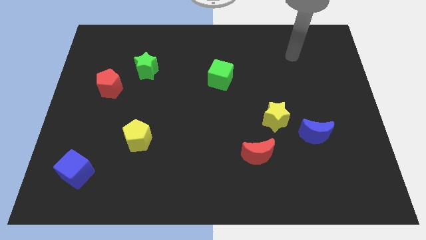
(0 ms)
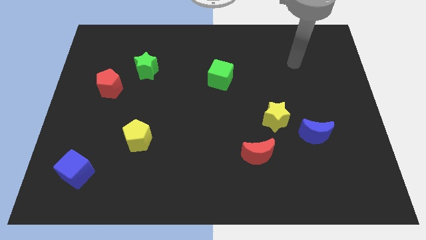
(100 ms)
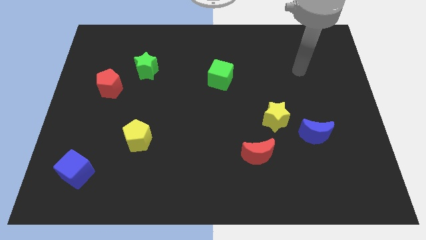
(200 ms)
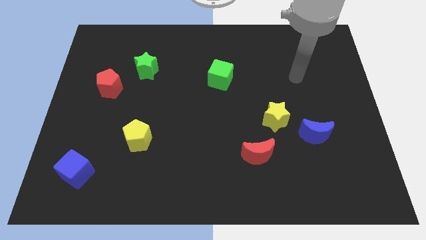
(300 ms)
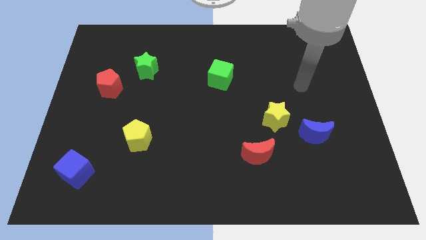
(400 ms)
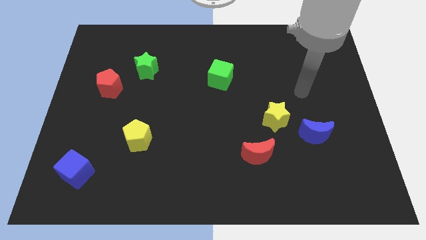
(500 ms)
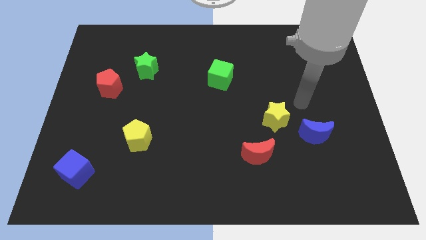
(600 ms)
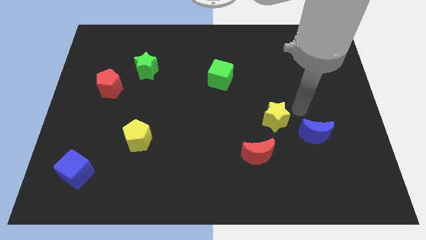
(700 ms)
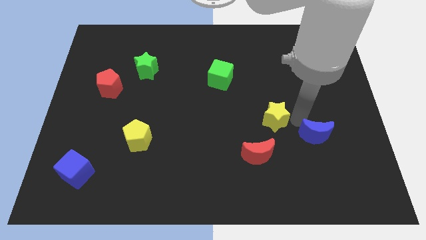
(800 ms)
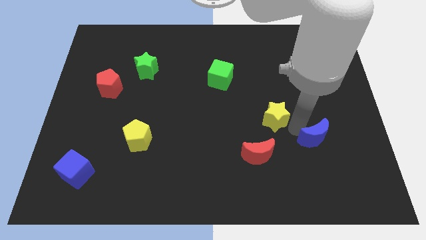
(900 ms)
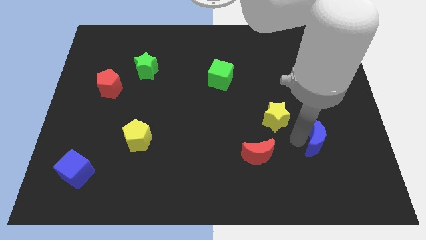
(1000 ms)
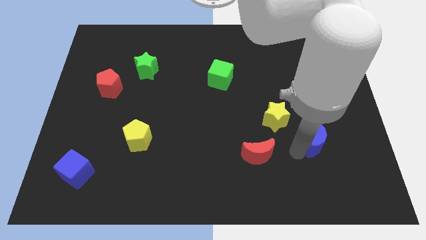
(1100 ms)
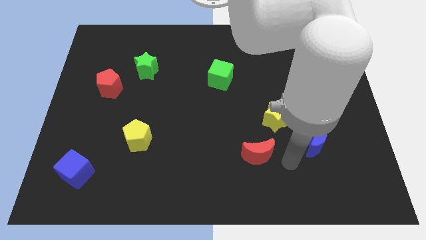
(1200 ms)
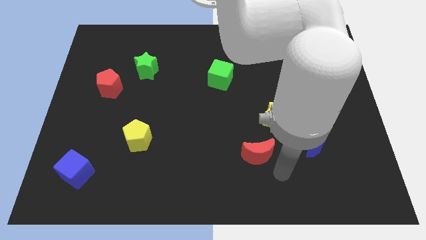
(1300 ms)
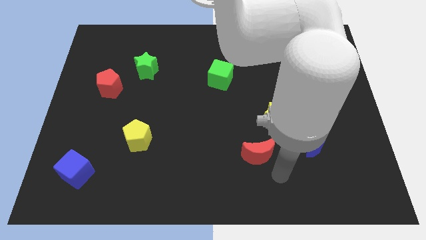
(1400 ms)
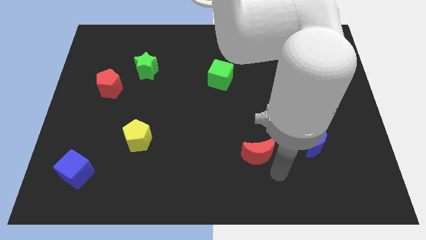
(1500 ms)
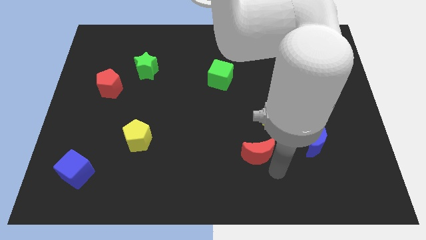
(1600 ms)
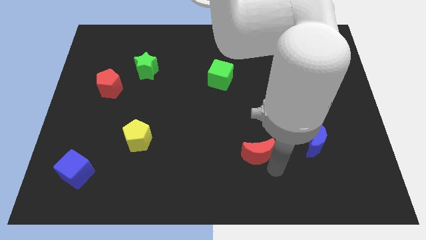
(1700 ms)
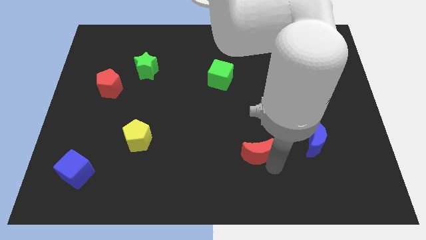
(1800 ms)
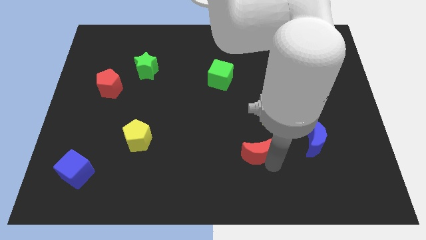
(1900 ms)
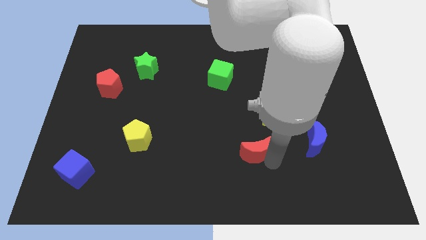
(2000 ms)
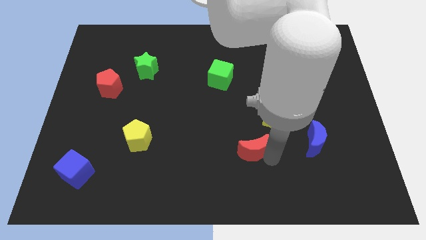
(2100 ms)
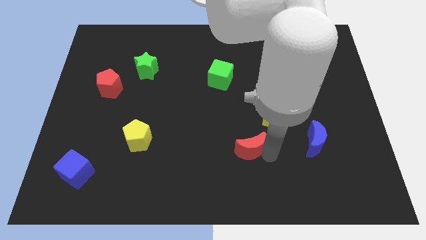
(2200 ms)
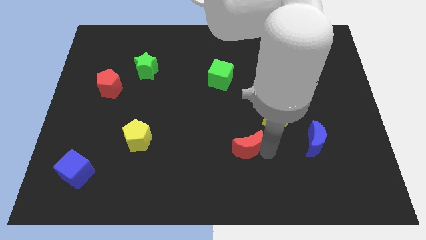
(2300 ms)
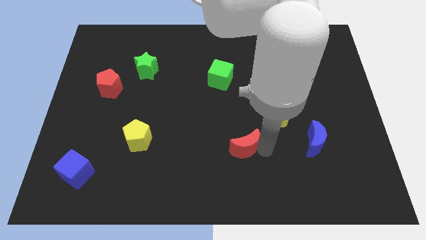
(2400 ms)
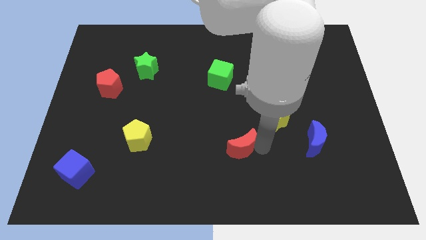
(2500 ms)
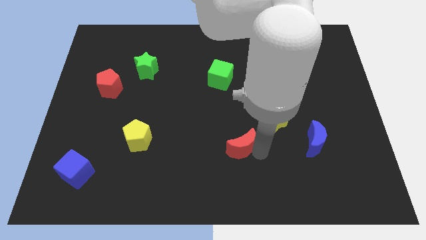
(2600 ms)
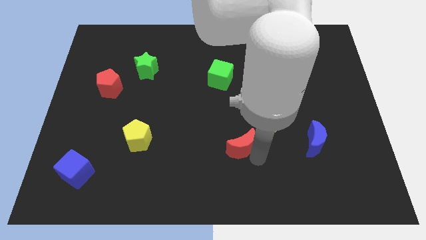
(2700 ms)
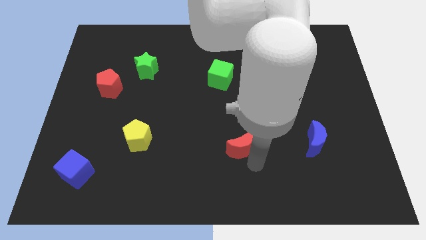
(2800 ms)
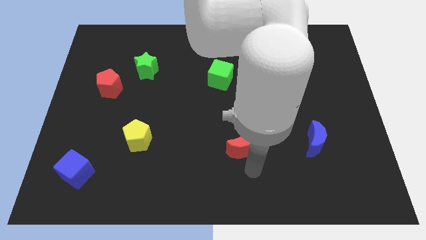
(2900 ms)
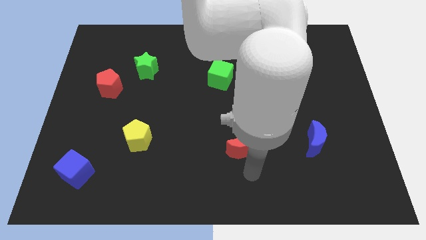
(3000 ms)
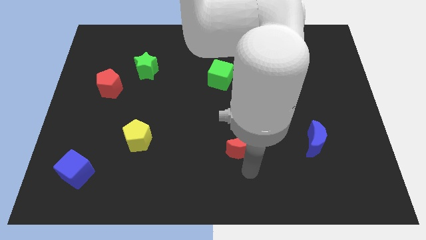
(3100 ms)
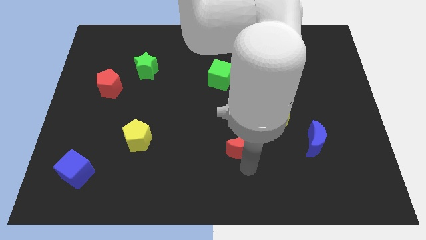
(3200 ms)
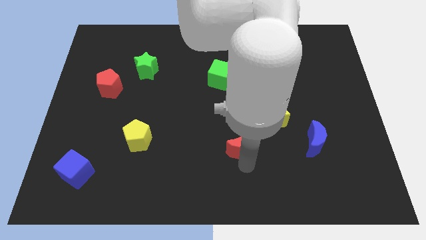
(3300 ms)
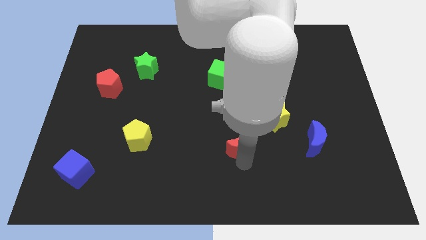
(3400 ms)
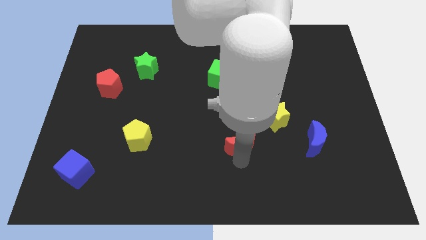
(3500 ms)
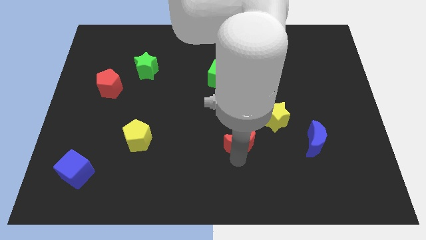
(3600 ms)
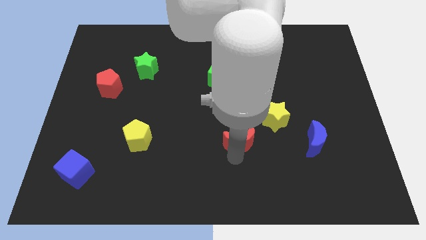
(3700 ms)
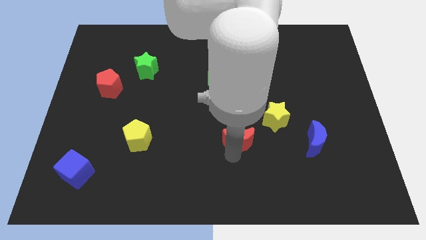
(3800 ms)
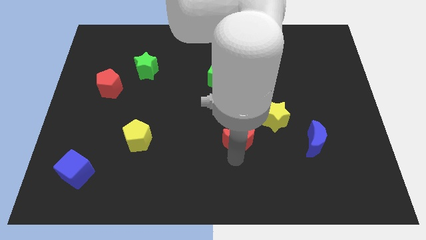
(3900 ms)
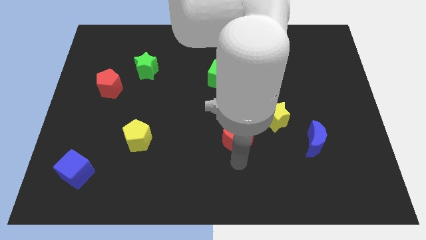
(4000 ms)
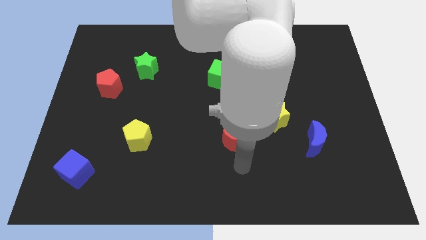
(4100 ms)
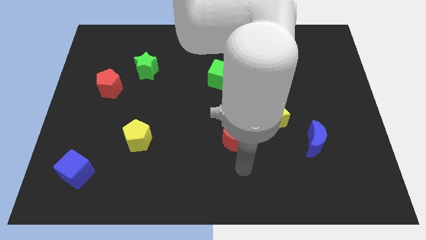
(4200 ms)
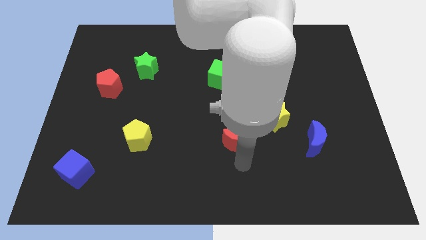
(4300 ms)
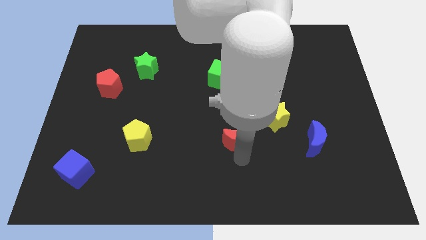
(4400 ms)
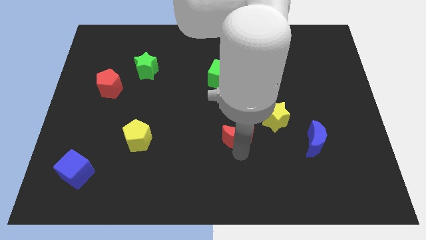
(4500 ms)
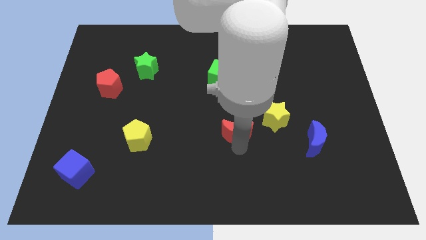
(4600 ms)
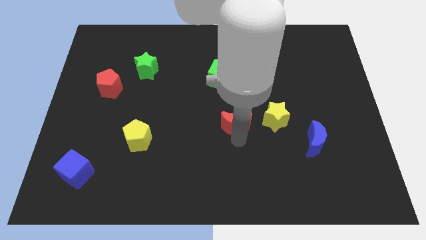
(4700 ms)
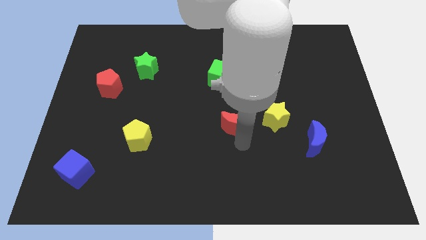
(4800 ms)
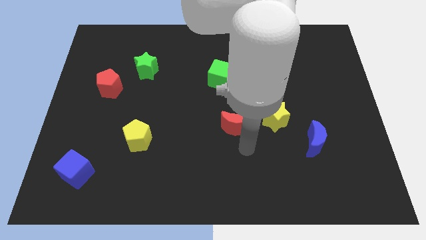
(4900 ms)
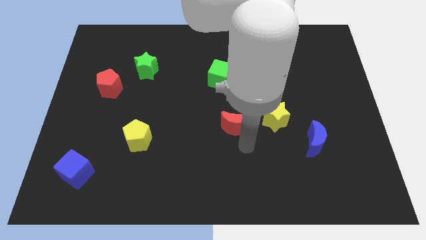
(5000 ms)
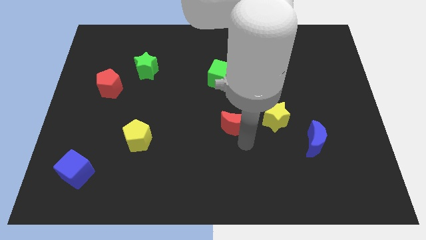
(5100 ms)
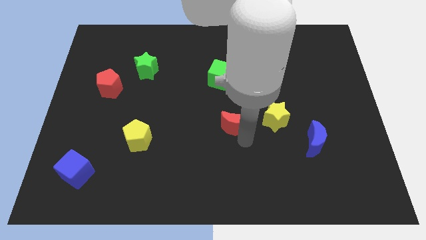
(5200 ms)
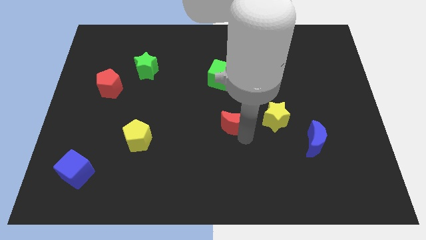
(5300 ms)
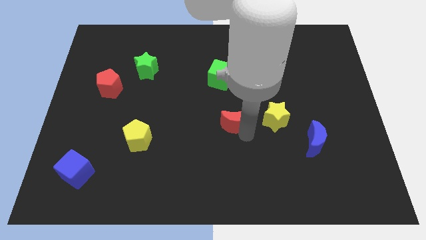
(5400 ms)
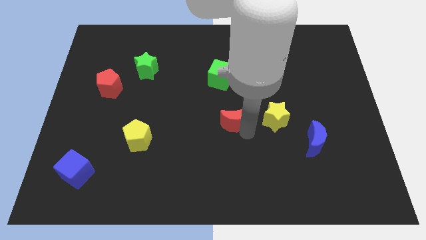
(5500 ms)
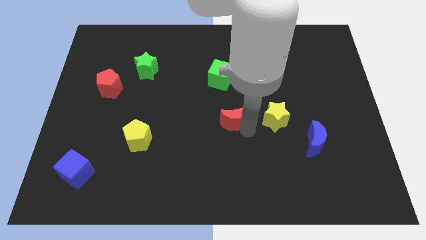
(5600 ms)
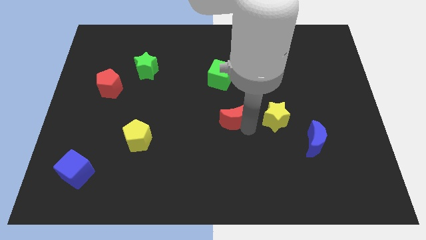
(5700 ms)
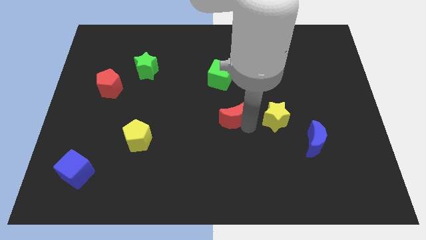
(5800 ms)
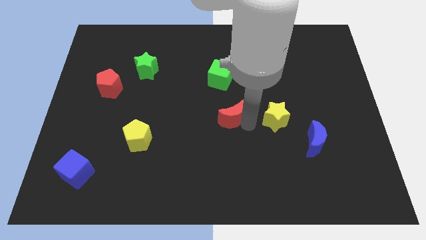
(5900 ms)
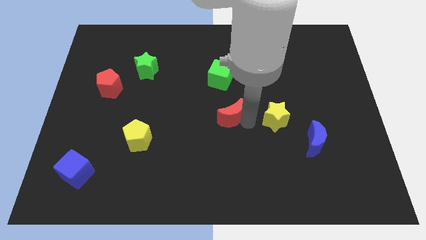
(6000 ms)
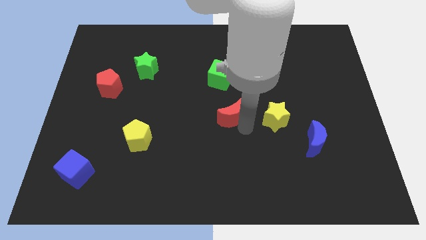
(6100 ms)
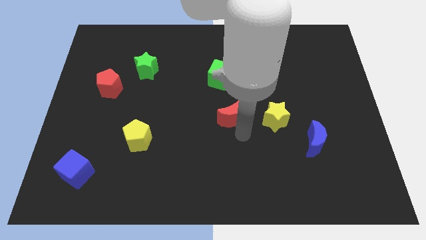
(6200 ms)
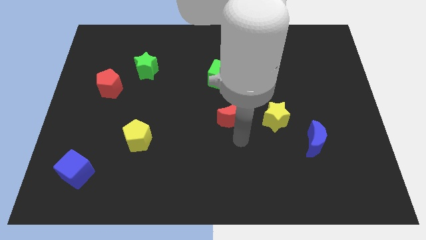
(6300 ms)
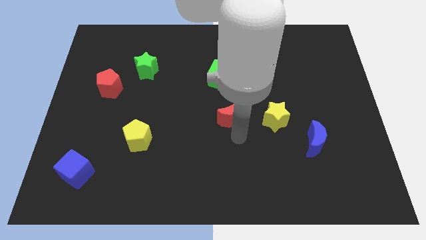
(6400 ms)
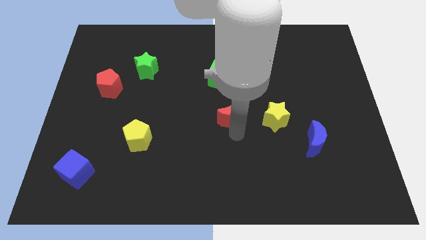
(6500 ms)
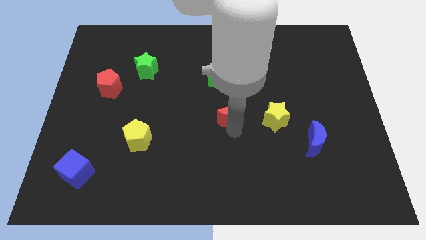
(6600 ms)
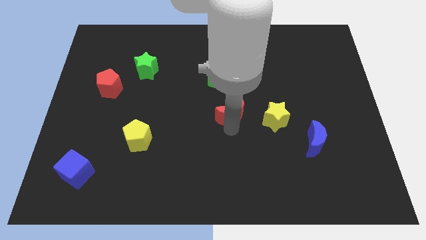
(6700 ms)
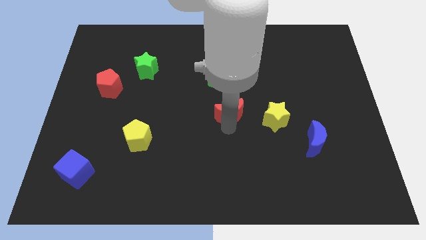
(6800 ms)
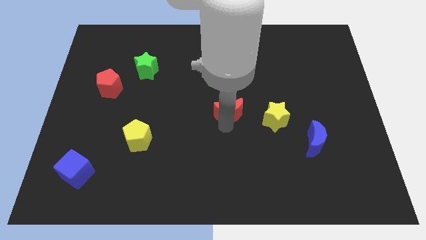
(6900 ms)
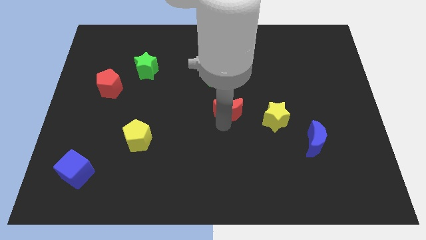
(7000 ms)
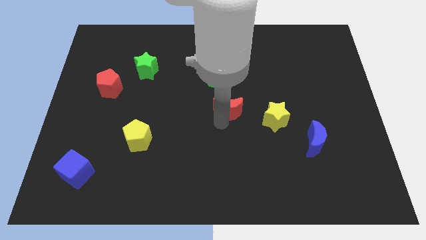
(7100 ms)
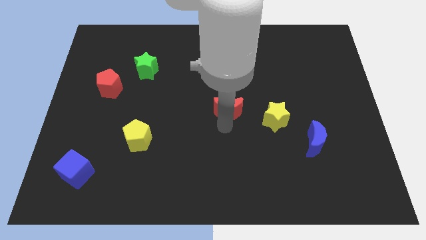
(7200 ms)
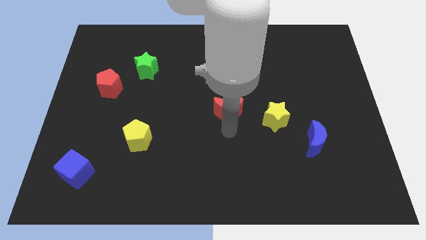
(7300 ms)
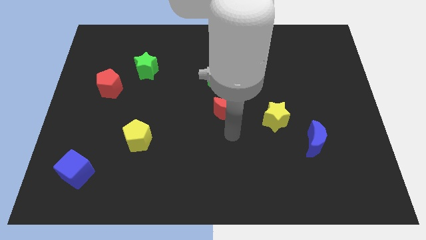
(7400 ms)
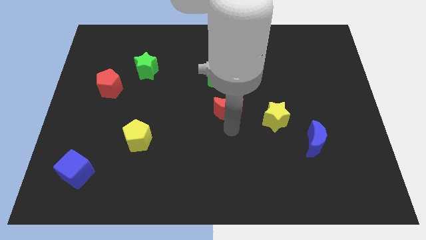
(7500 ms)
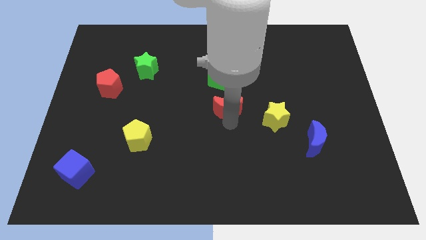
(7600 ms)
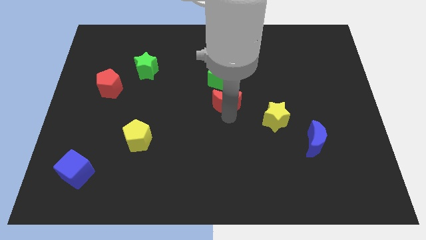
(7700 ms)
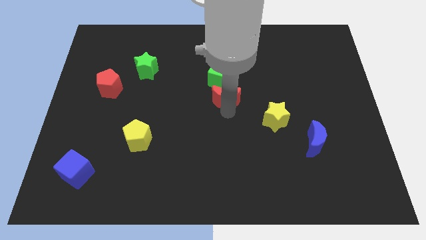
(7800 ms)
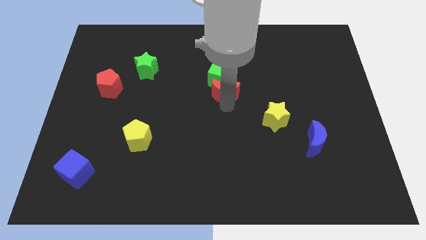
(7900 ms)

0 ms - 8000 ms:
slide the red moon to the green cube
